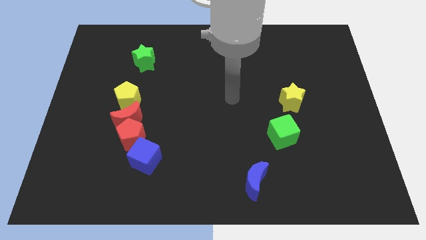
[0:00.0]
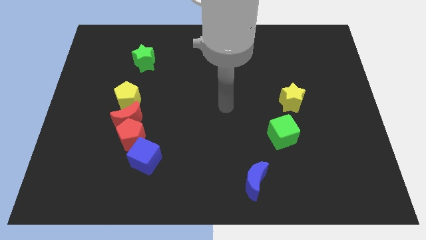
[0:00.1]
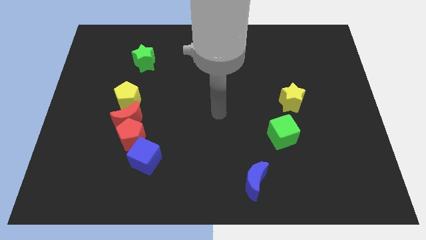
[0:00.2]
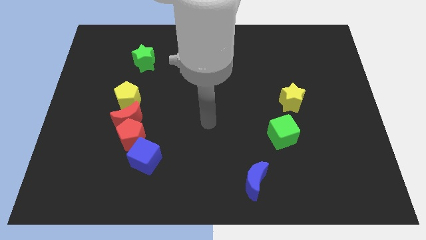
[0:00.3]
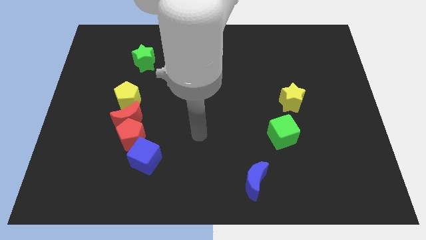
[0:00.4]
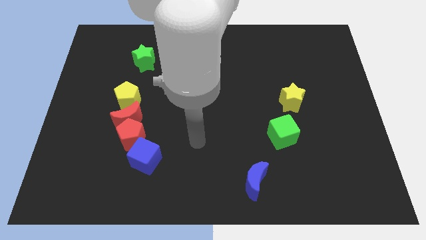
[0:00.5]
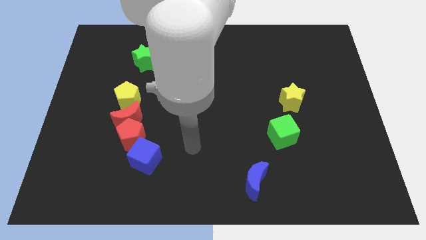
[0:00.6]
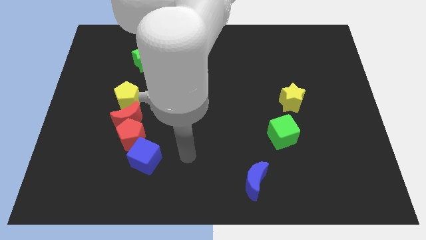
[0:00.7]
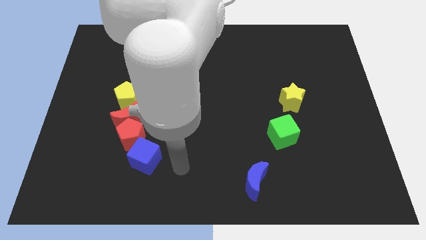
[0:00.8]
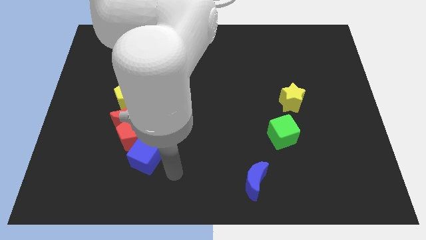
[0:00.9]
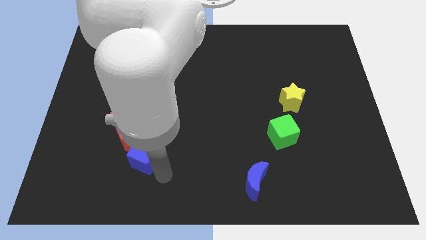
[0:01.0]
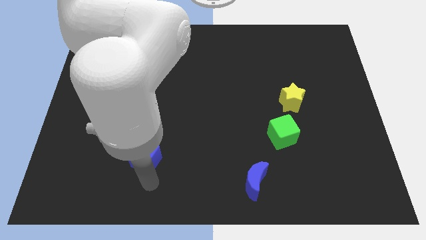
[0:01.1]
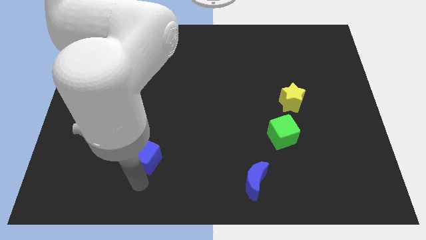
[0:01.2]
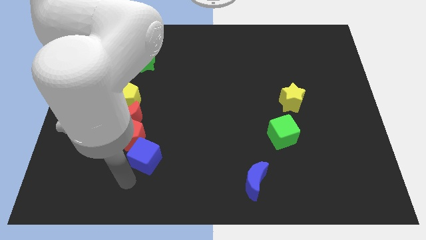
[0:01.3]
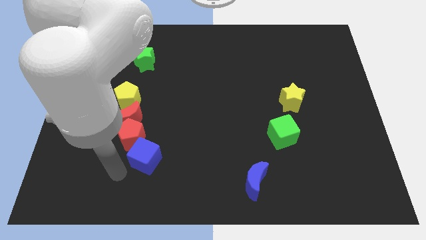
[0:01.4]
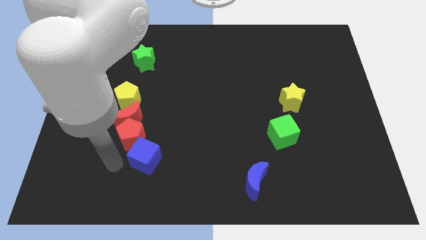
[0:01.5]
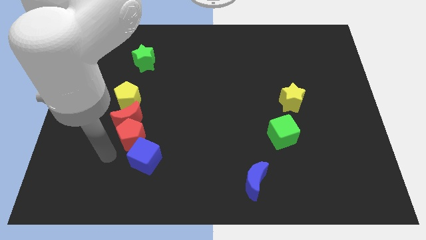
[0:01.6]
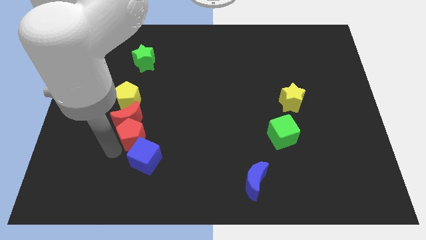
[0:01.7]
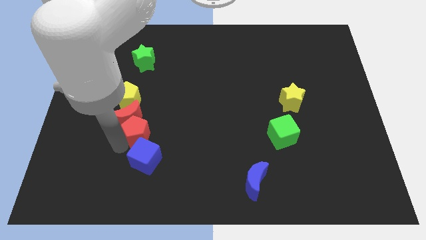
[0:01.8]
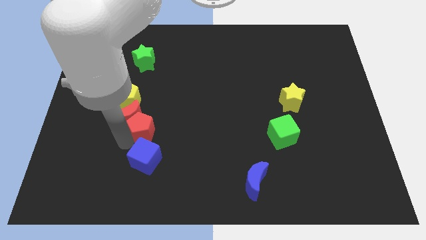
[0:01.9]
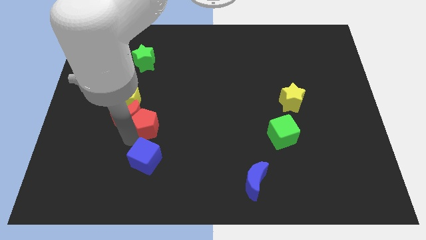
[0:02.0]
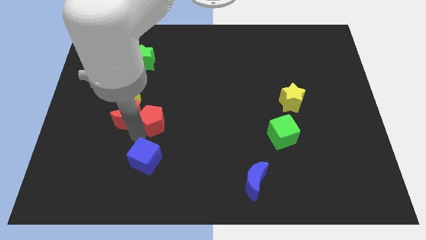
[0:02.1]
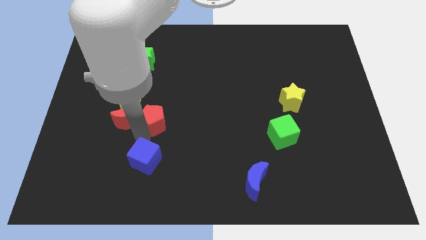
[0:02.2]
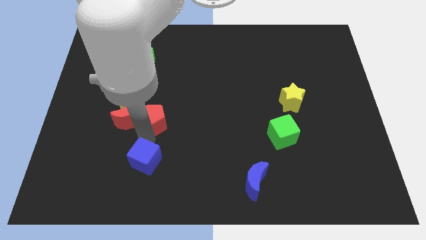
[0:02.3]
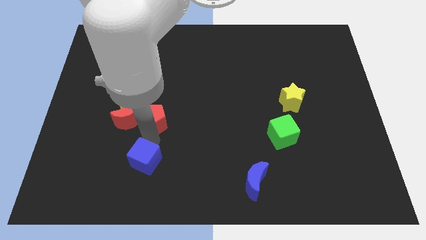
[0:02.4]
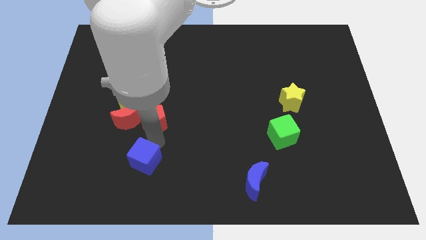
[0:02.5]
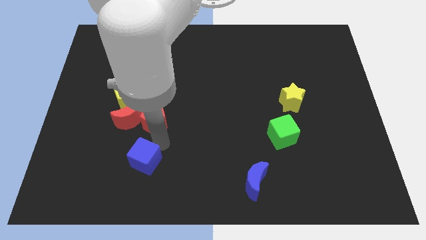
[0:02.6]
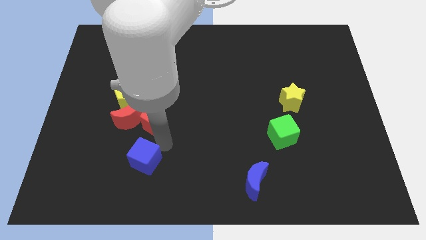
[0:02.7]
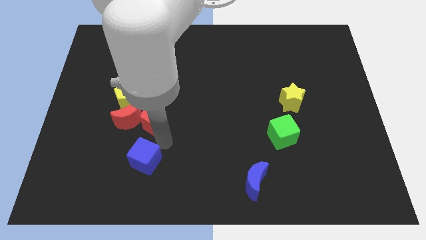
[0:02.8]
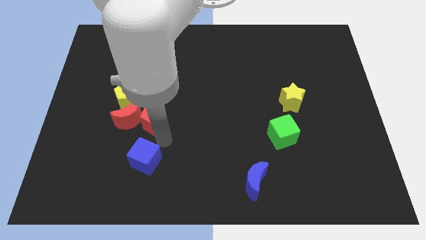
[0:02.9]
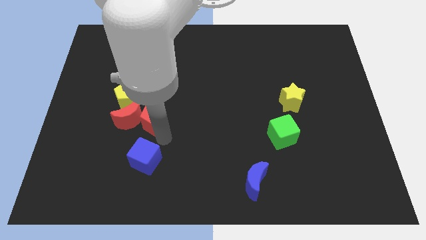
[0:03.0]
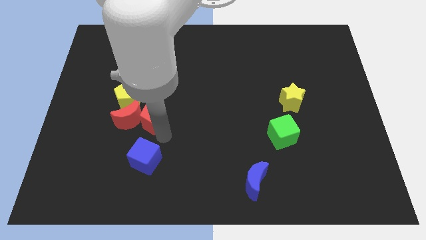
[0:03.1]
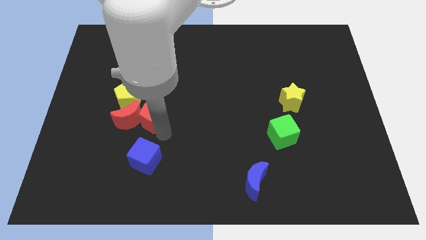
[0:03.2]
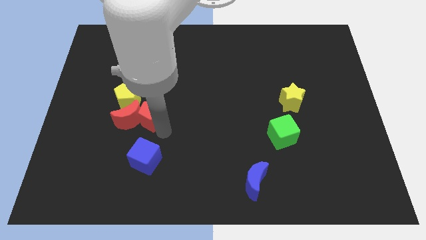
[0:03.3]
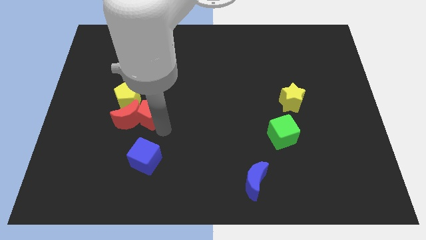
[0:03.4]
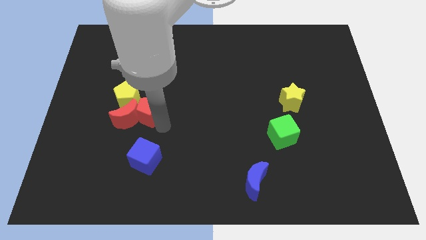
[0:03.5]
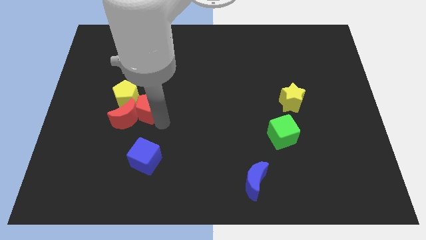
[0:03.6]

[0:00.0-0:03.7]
push the red pentagon up a bit

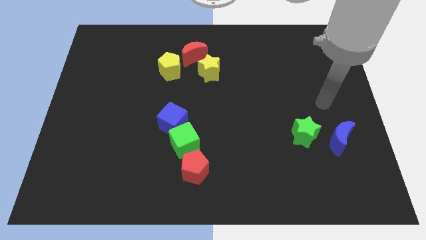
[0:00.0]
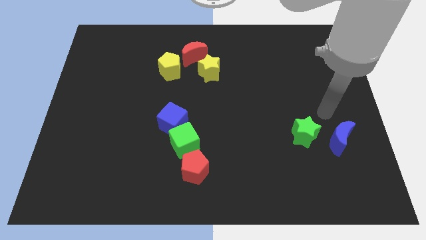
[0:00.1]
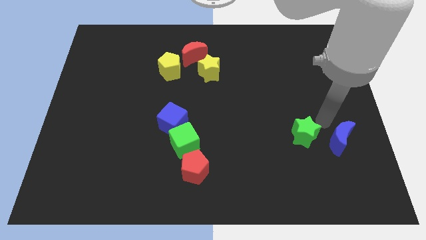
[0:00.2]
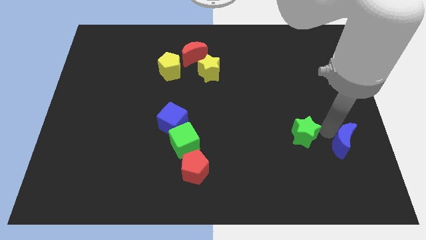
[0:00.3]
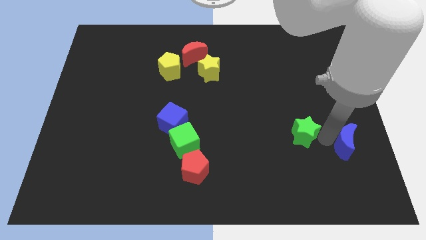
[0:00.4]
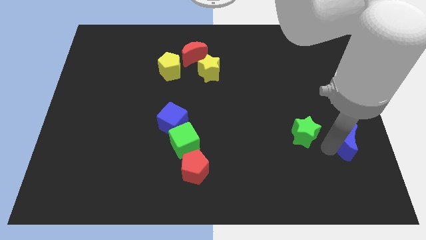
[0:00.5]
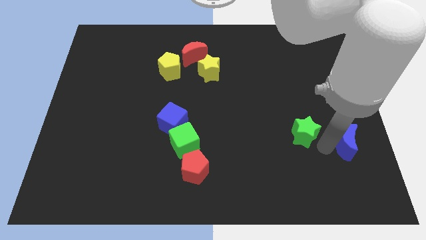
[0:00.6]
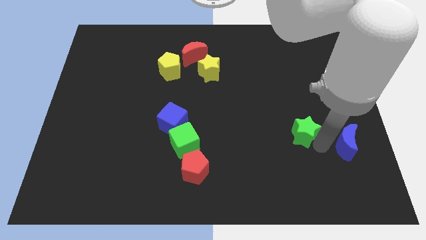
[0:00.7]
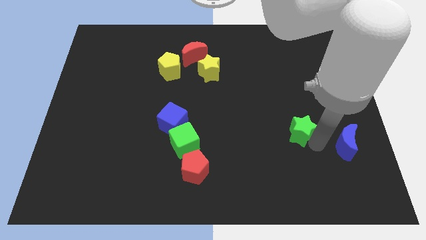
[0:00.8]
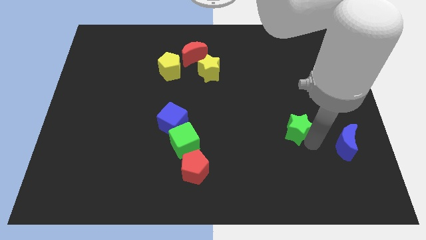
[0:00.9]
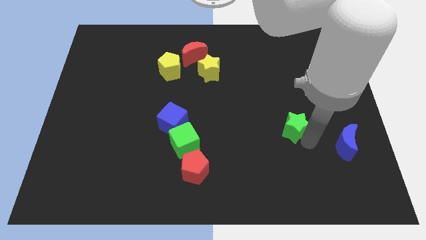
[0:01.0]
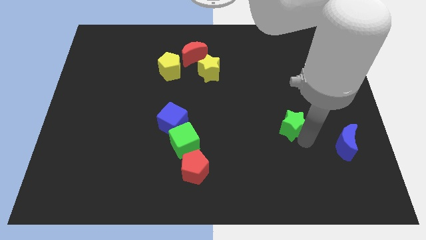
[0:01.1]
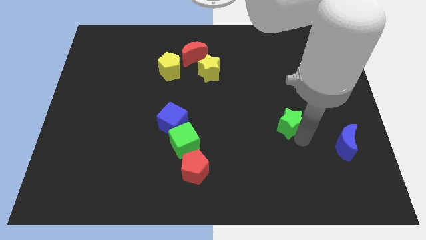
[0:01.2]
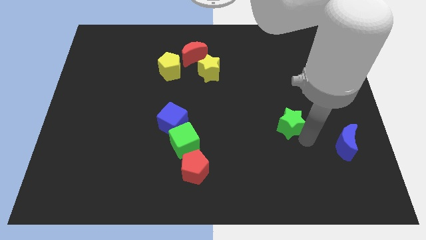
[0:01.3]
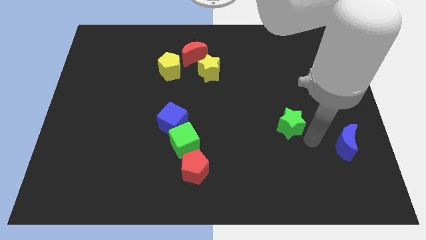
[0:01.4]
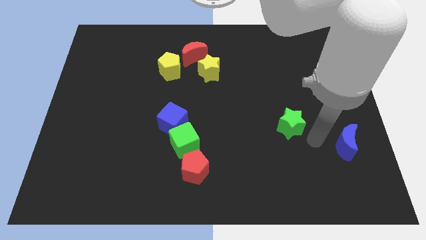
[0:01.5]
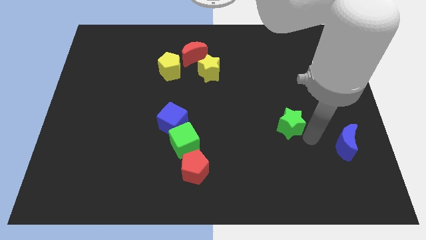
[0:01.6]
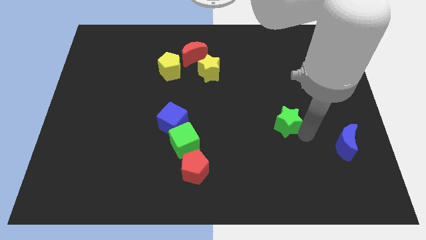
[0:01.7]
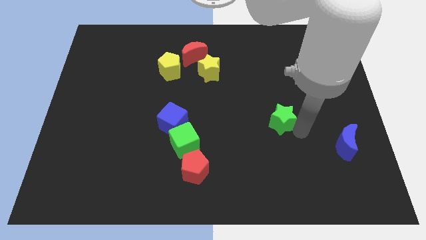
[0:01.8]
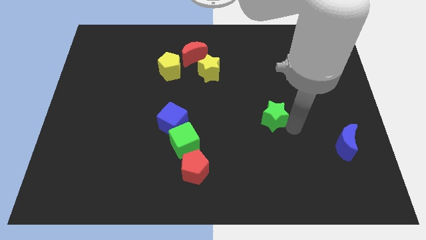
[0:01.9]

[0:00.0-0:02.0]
slightly move the green star upwards and then to the left

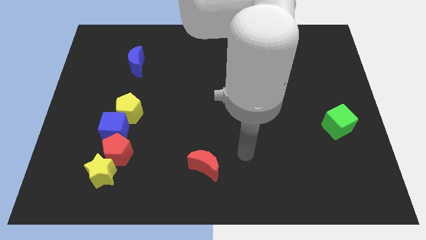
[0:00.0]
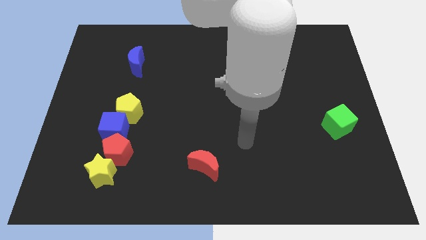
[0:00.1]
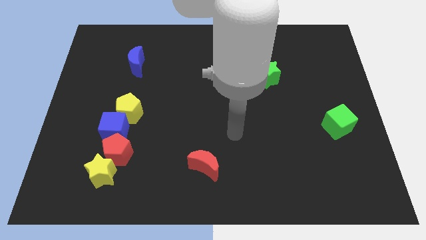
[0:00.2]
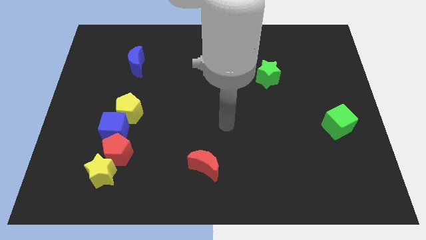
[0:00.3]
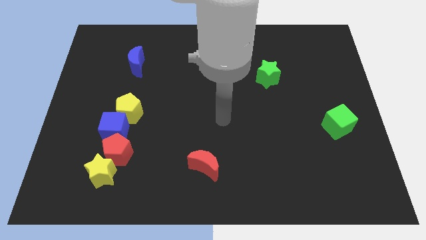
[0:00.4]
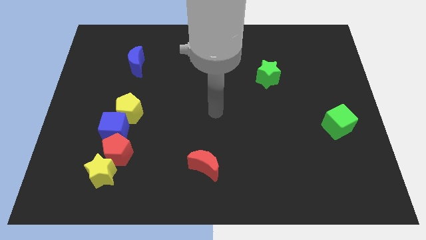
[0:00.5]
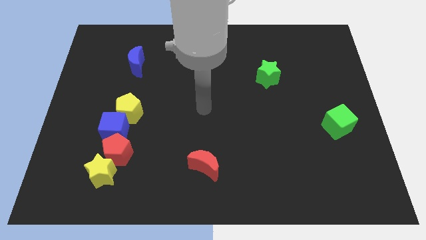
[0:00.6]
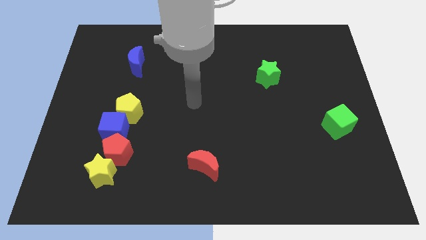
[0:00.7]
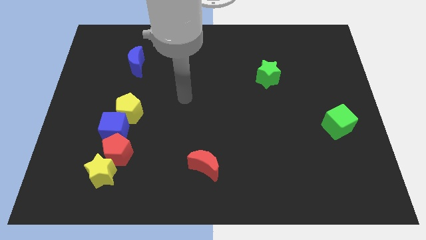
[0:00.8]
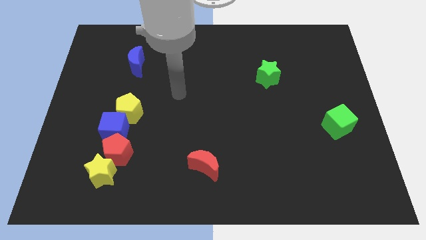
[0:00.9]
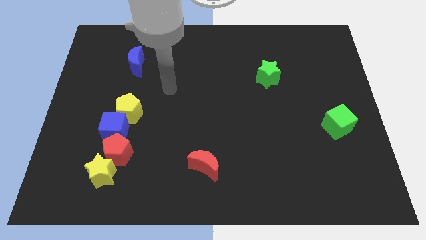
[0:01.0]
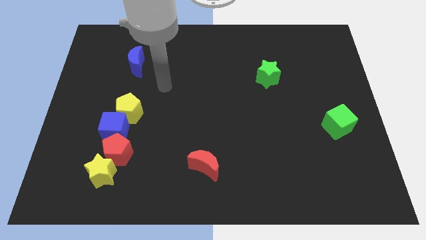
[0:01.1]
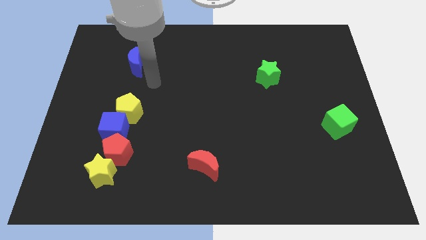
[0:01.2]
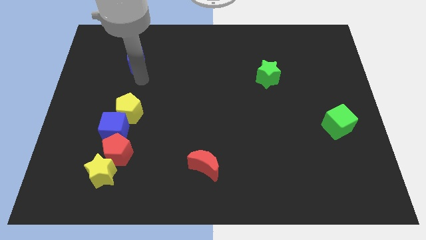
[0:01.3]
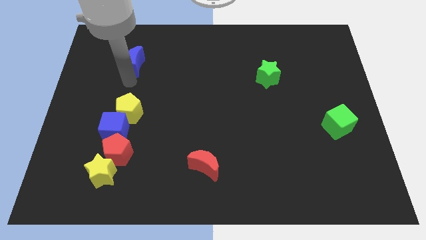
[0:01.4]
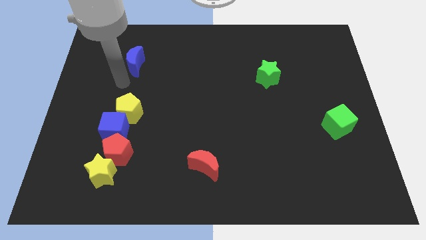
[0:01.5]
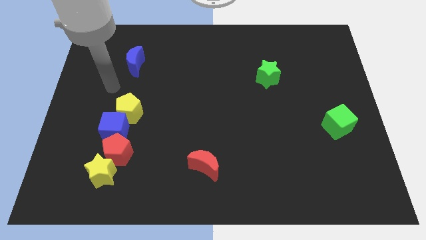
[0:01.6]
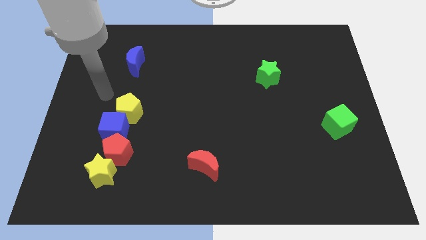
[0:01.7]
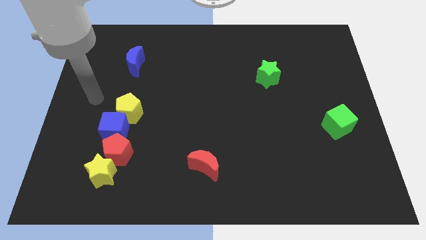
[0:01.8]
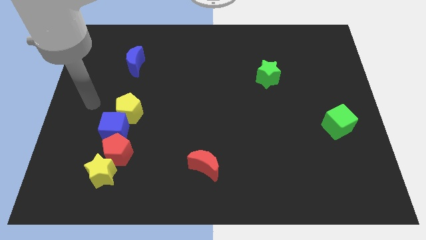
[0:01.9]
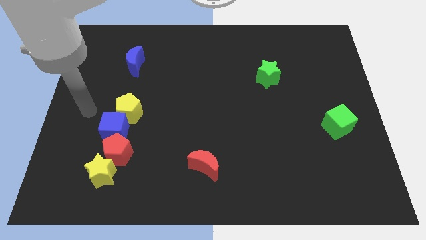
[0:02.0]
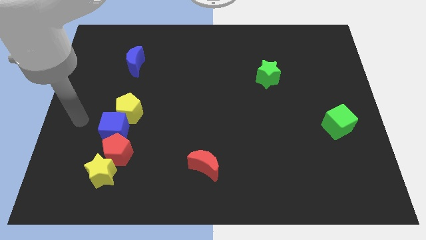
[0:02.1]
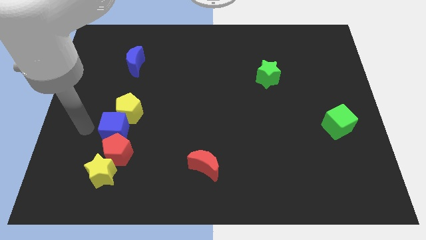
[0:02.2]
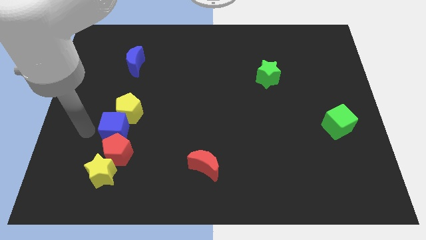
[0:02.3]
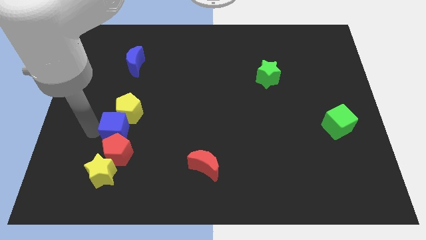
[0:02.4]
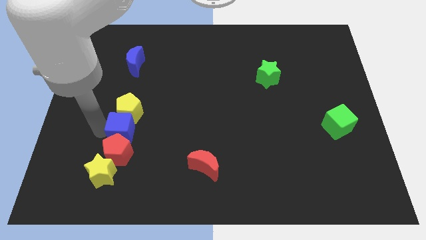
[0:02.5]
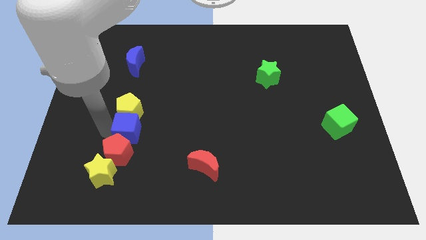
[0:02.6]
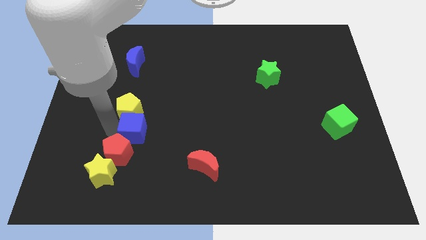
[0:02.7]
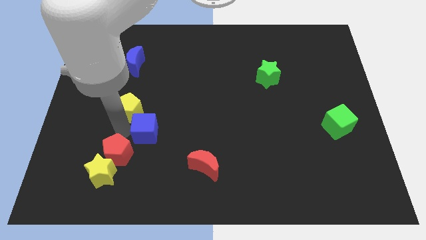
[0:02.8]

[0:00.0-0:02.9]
slightly move the blue cube to the right
